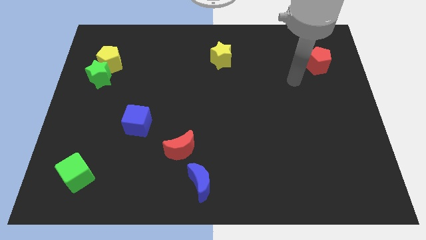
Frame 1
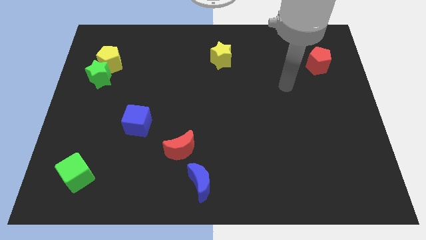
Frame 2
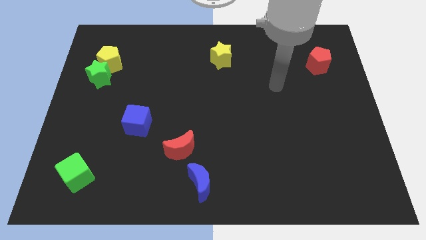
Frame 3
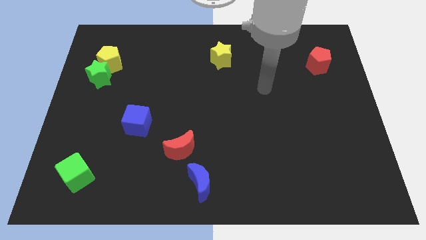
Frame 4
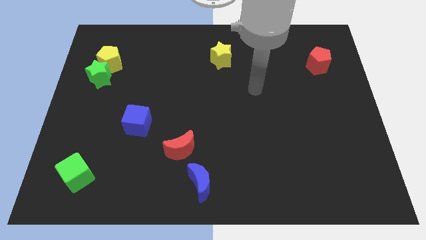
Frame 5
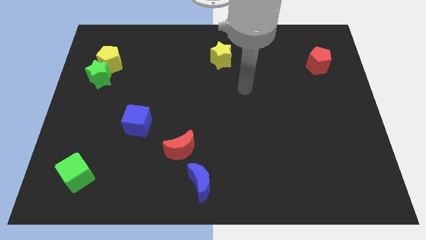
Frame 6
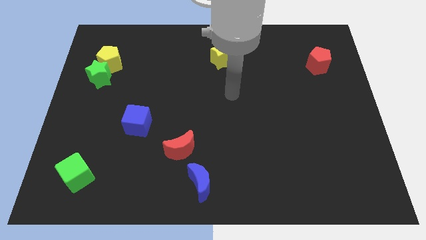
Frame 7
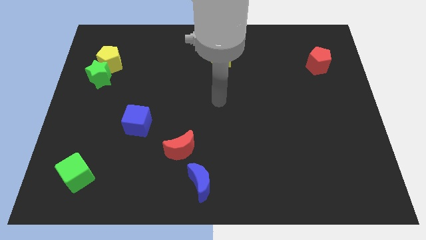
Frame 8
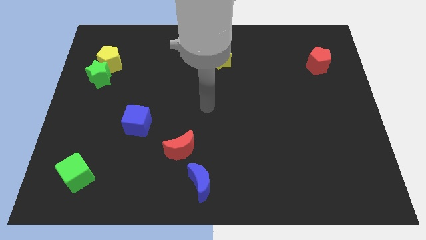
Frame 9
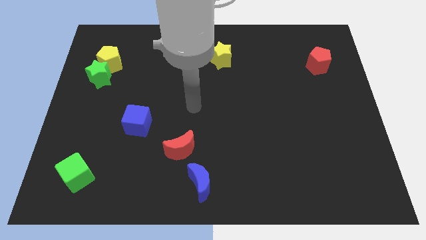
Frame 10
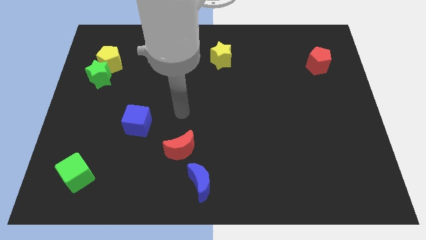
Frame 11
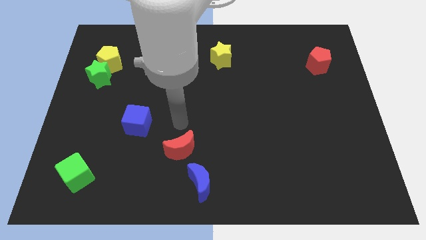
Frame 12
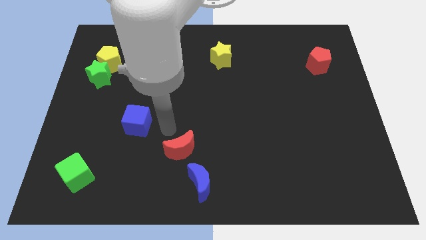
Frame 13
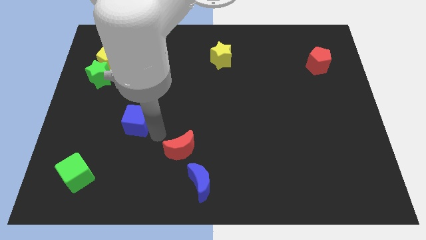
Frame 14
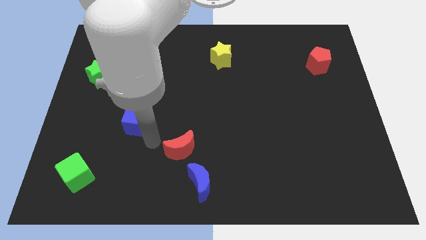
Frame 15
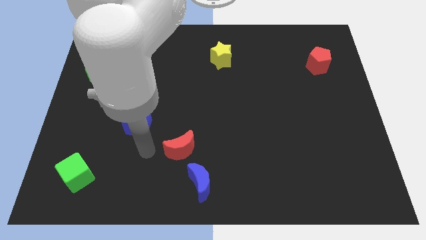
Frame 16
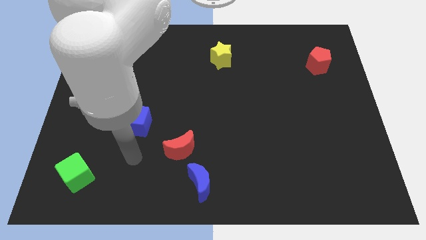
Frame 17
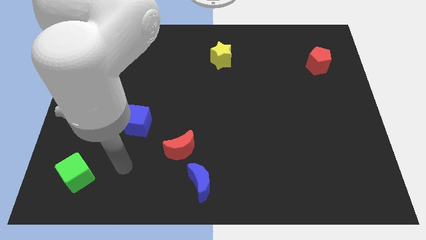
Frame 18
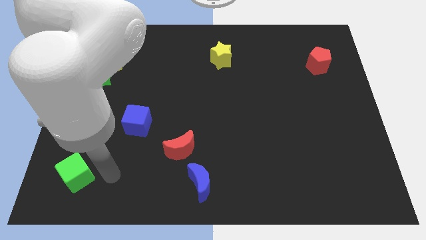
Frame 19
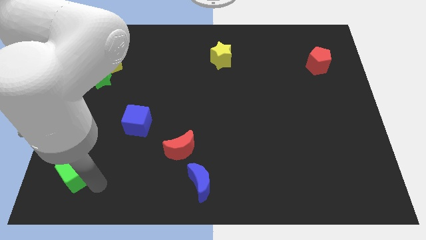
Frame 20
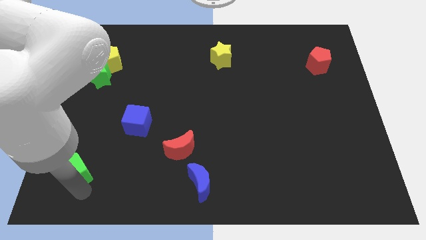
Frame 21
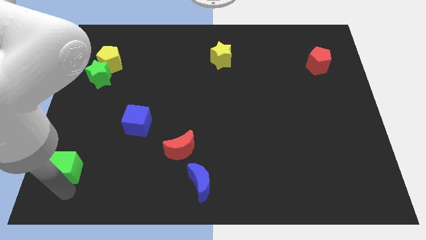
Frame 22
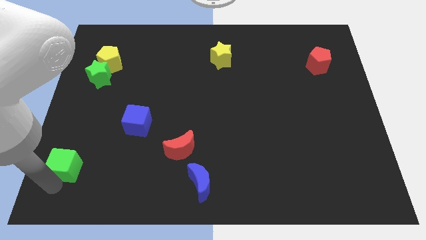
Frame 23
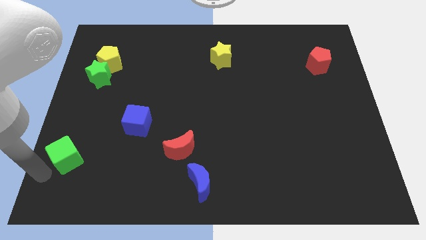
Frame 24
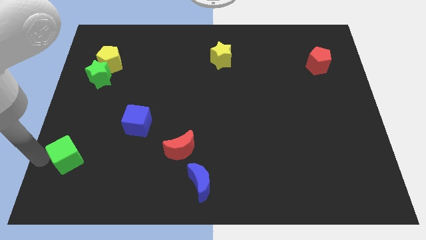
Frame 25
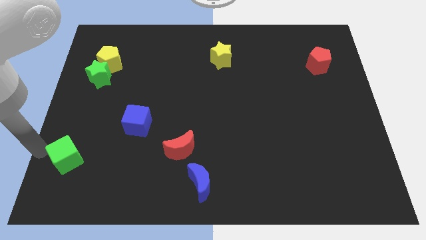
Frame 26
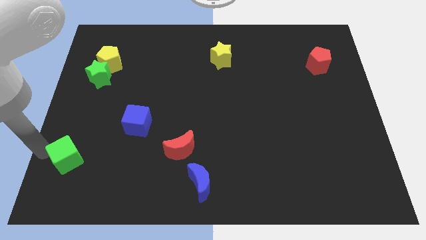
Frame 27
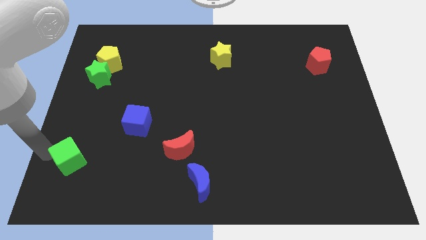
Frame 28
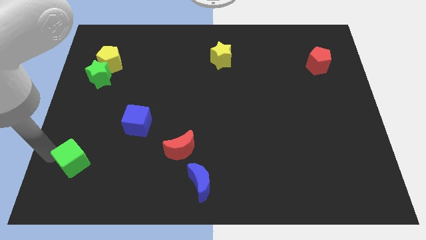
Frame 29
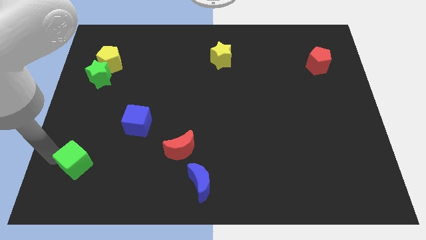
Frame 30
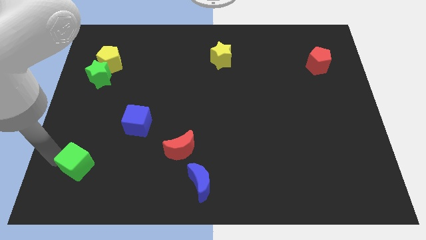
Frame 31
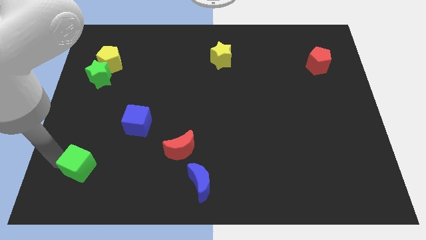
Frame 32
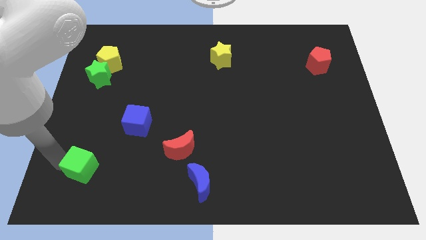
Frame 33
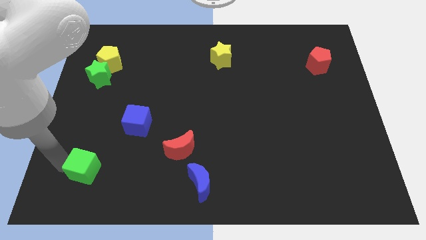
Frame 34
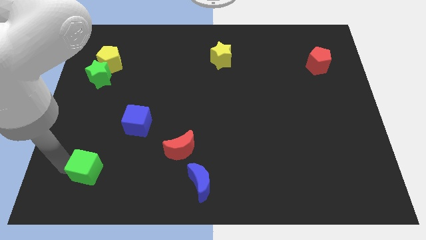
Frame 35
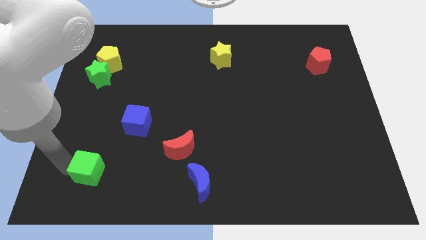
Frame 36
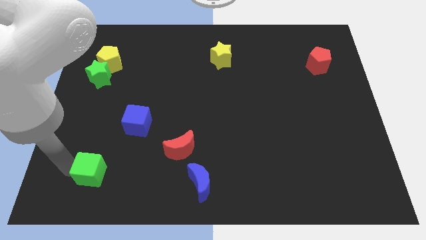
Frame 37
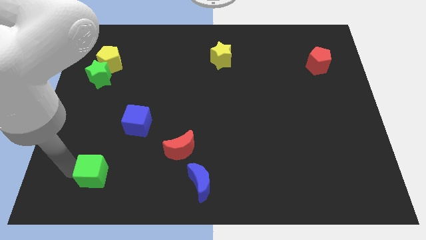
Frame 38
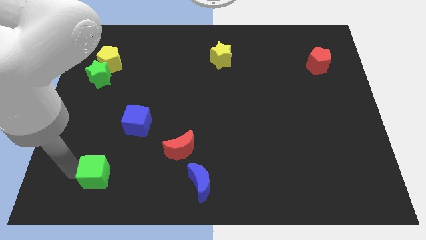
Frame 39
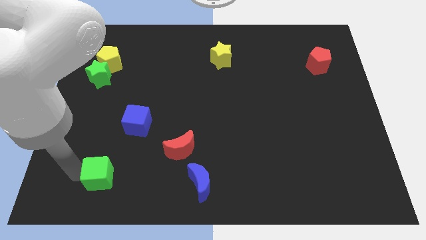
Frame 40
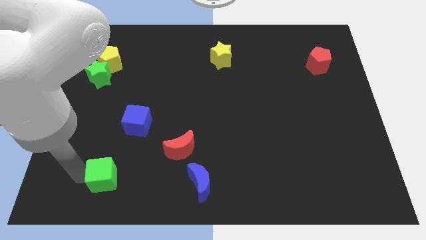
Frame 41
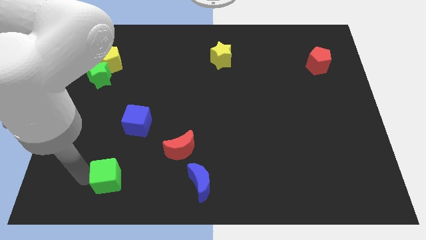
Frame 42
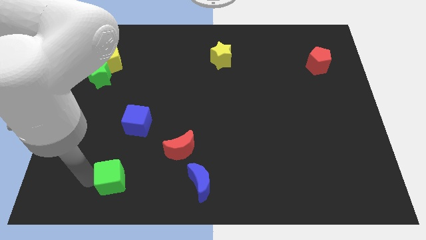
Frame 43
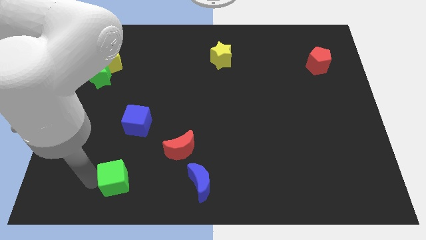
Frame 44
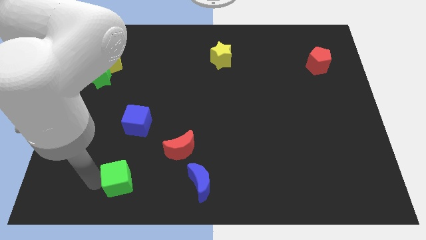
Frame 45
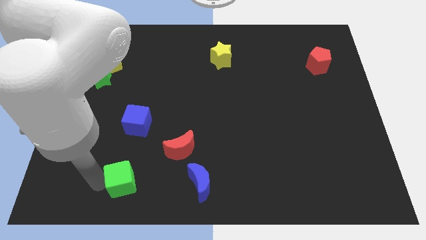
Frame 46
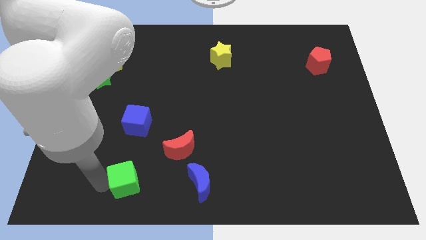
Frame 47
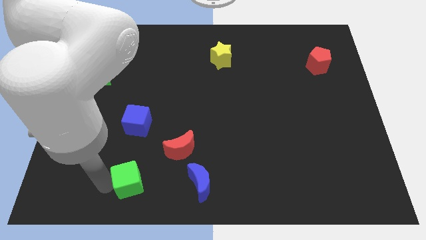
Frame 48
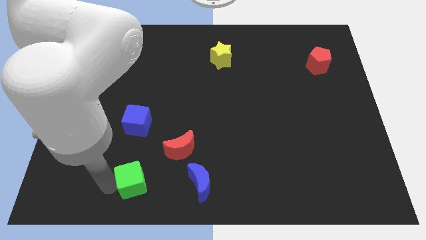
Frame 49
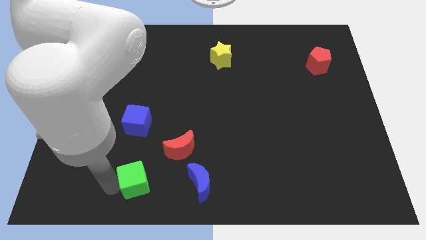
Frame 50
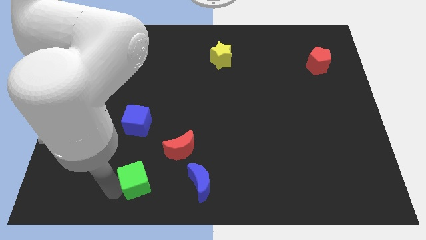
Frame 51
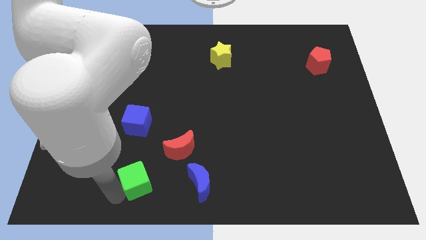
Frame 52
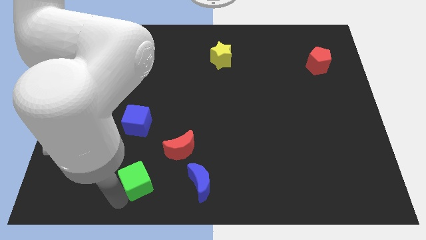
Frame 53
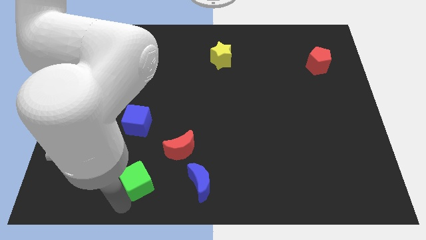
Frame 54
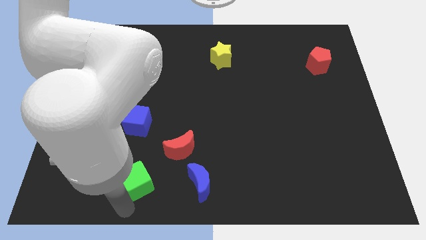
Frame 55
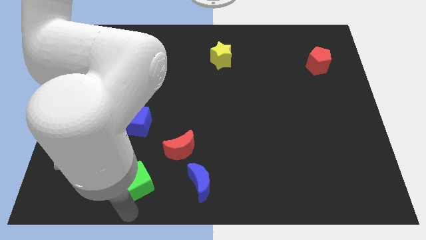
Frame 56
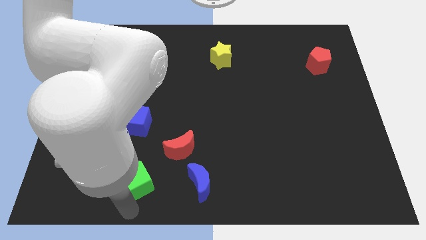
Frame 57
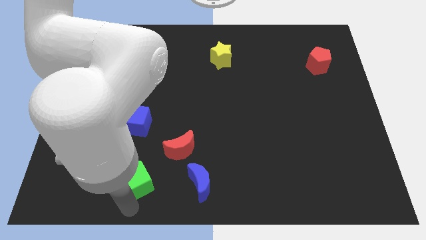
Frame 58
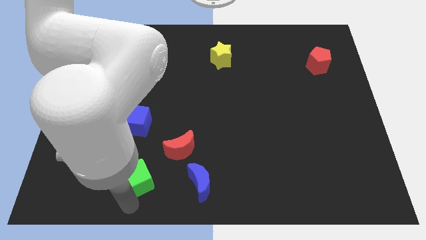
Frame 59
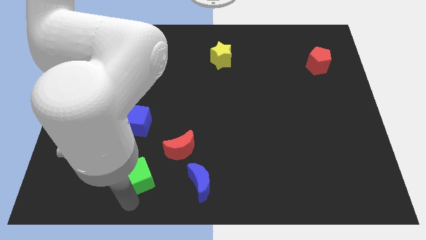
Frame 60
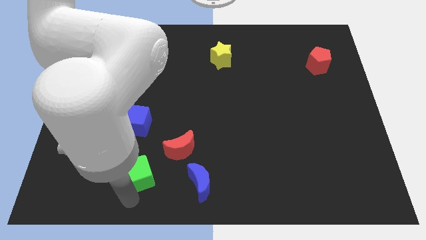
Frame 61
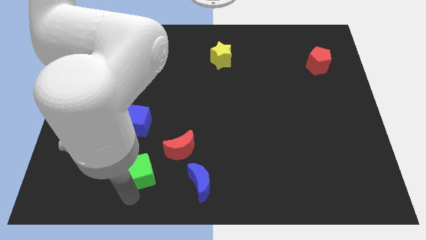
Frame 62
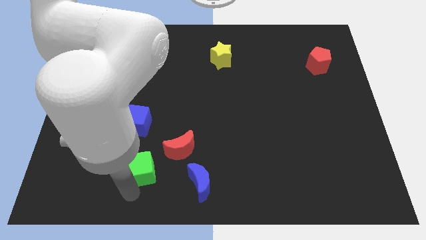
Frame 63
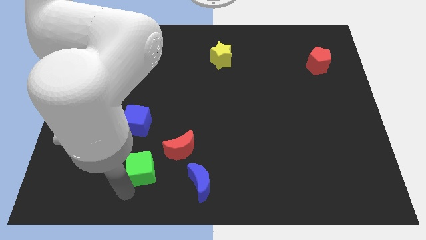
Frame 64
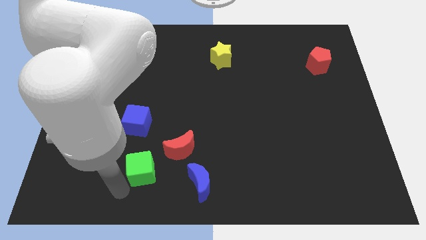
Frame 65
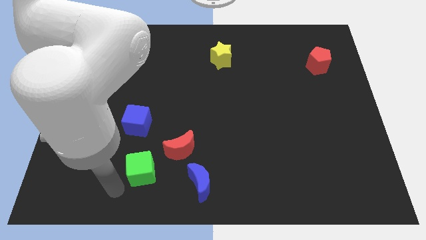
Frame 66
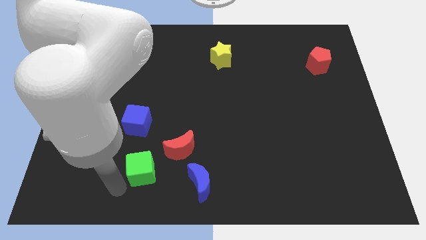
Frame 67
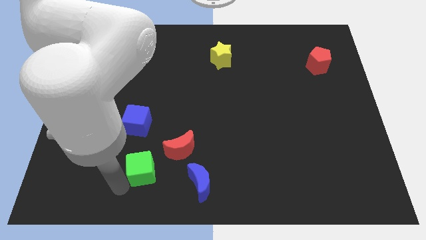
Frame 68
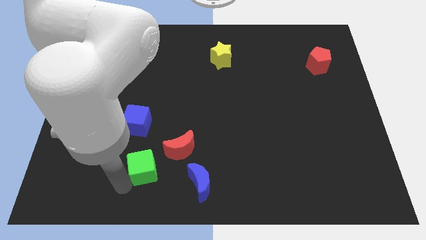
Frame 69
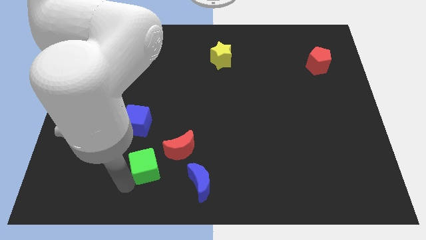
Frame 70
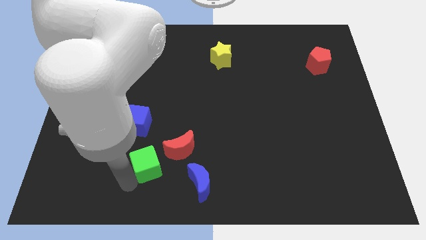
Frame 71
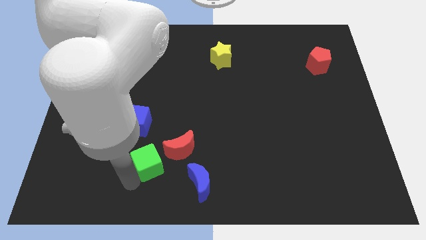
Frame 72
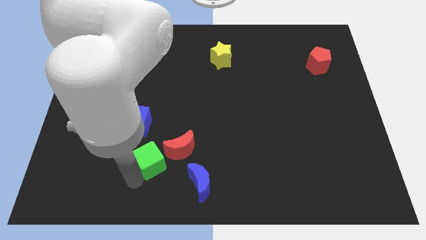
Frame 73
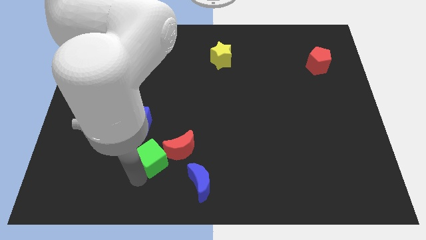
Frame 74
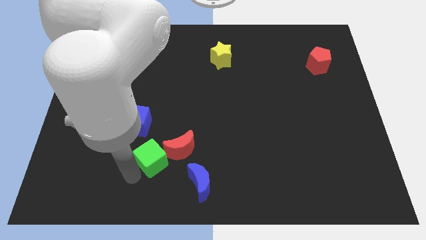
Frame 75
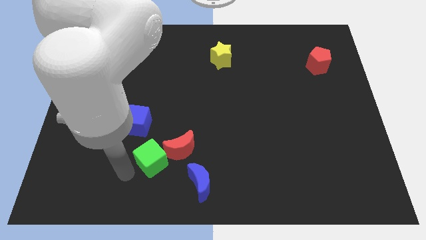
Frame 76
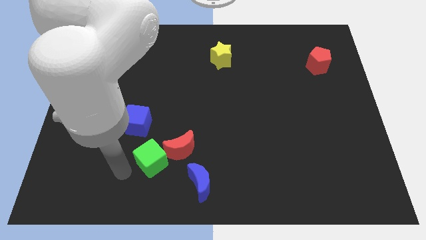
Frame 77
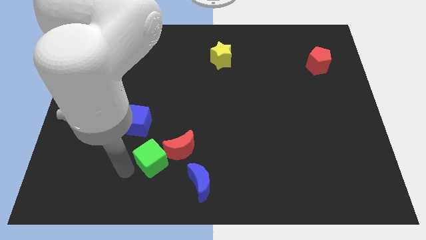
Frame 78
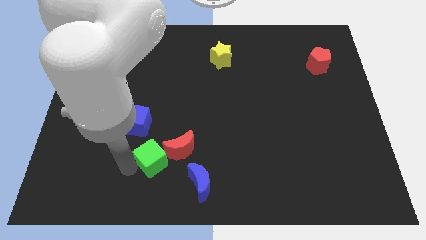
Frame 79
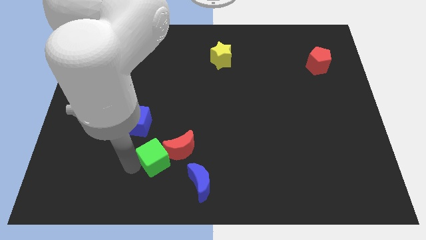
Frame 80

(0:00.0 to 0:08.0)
put the green cube to the red moon
